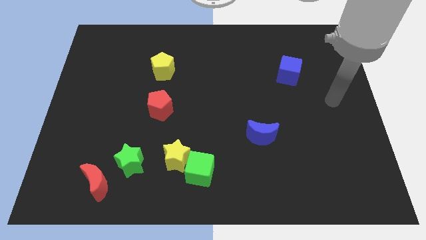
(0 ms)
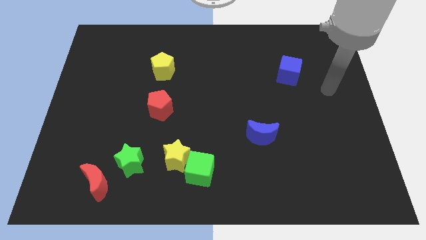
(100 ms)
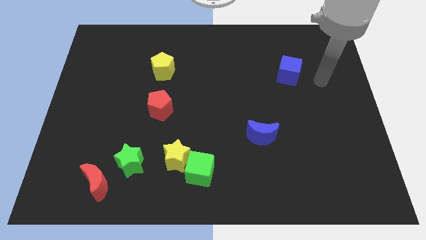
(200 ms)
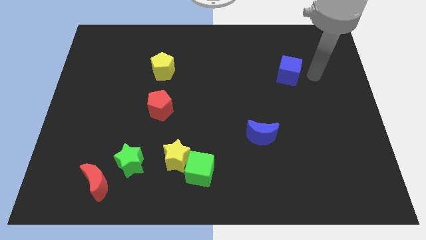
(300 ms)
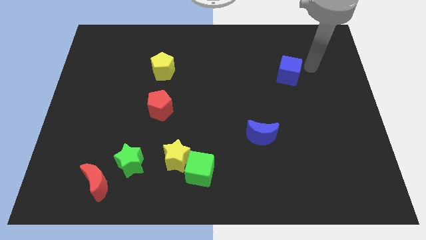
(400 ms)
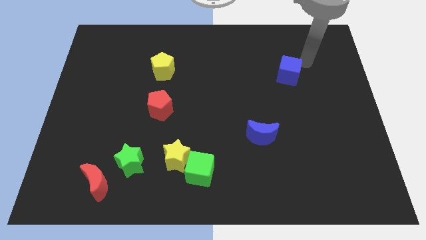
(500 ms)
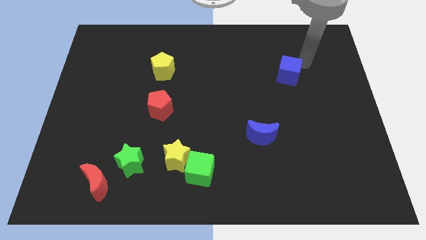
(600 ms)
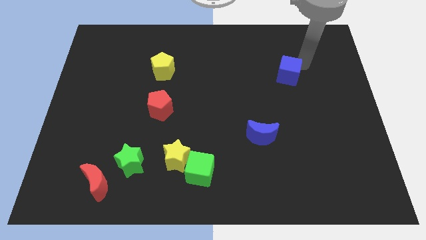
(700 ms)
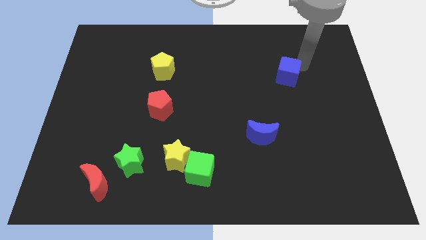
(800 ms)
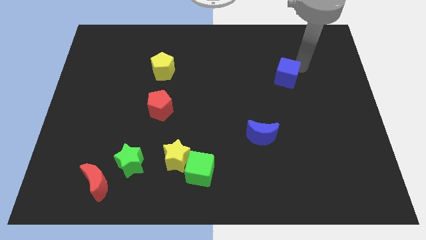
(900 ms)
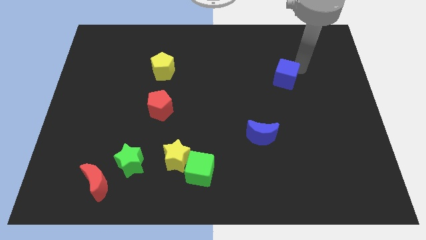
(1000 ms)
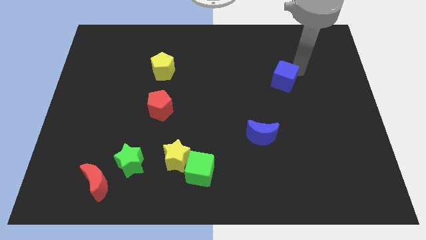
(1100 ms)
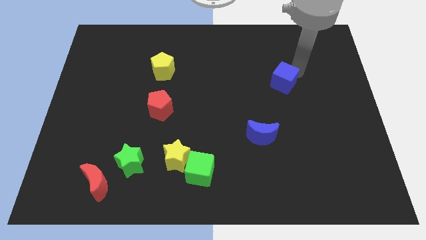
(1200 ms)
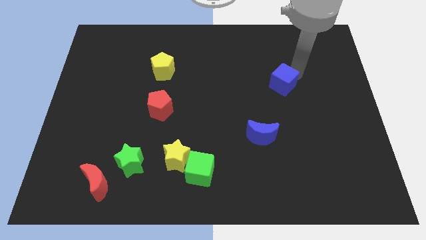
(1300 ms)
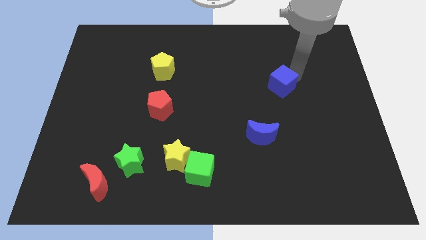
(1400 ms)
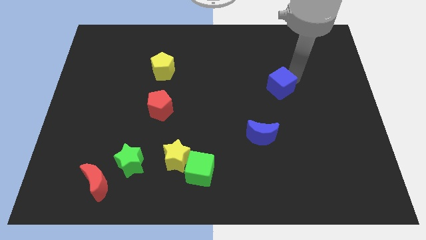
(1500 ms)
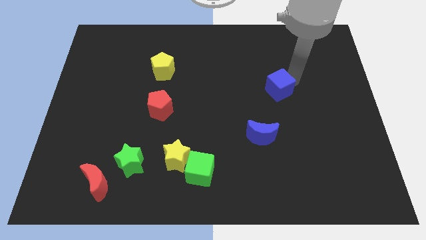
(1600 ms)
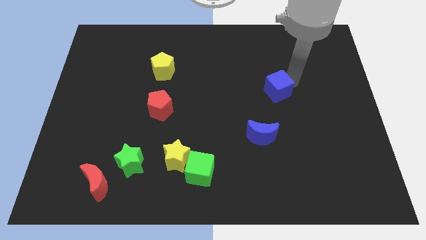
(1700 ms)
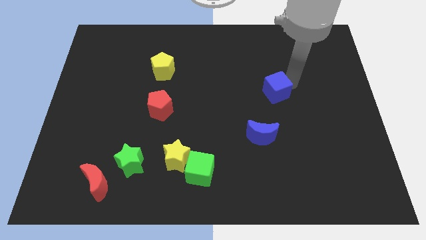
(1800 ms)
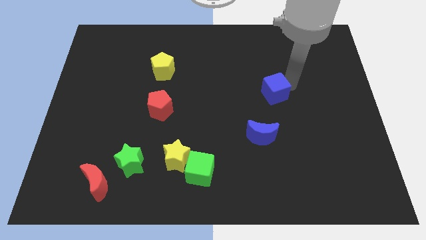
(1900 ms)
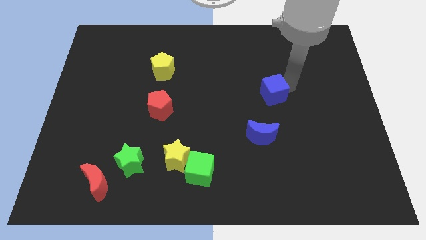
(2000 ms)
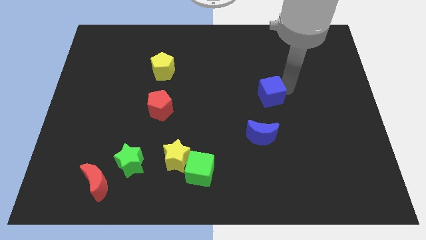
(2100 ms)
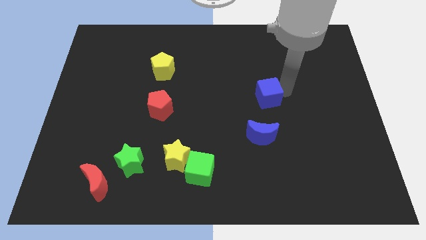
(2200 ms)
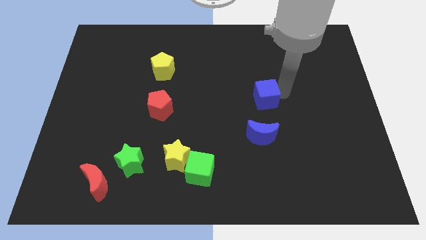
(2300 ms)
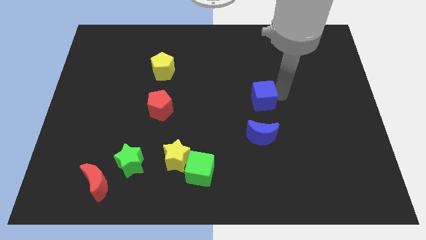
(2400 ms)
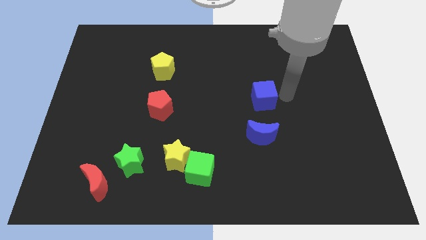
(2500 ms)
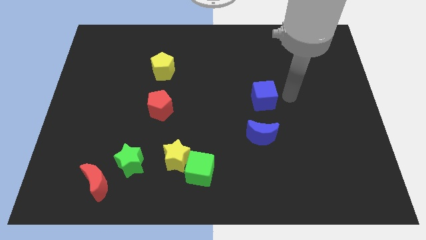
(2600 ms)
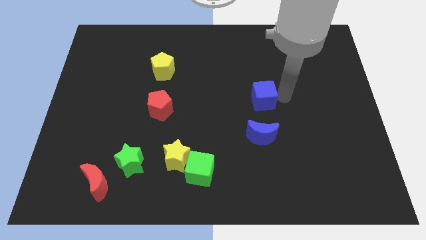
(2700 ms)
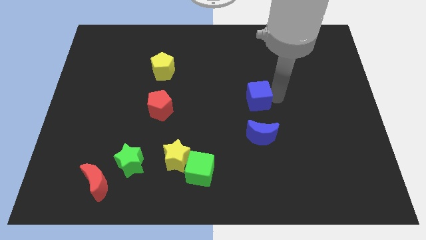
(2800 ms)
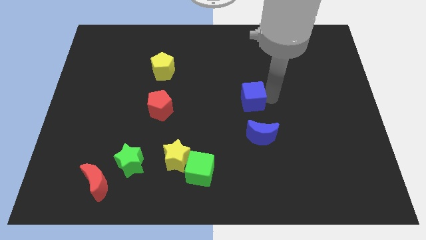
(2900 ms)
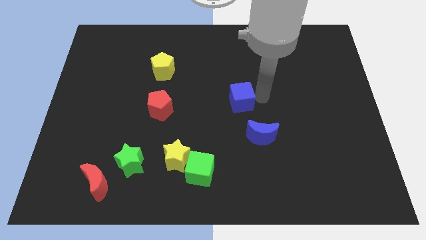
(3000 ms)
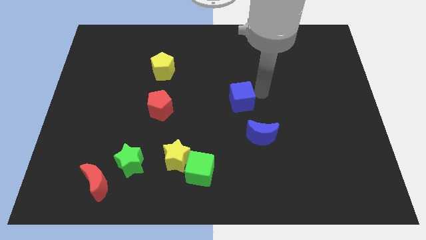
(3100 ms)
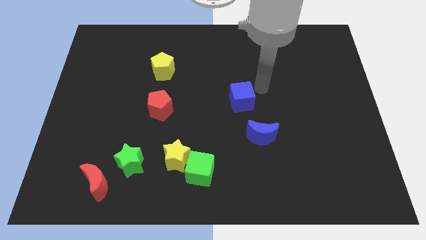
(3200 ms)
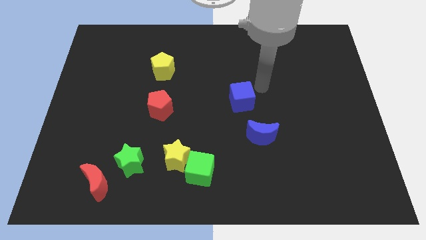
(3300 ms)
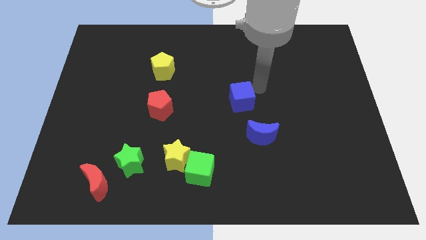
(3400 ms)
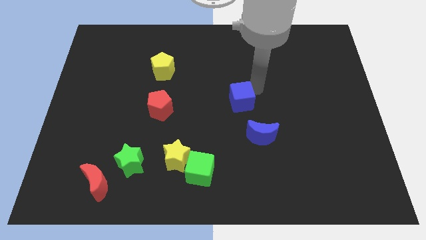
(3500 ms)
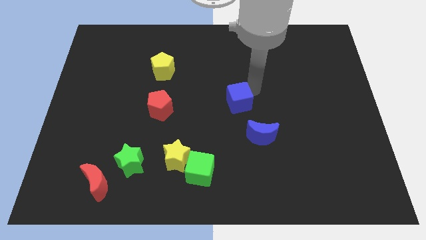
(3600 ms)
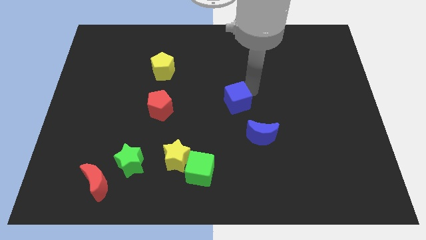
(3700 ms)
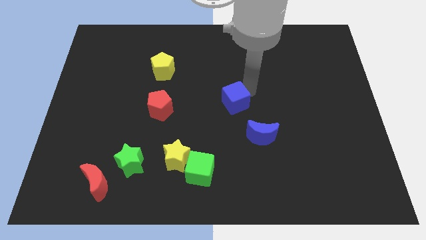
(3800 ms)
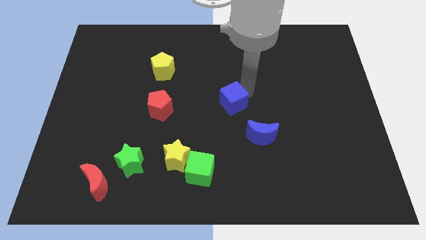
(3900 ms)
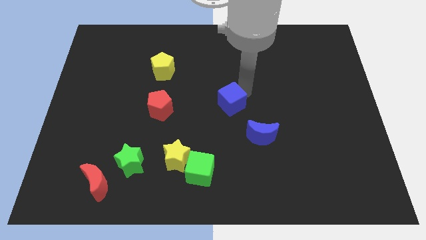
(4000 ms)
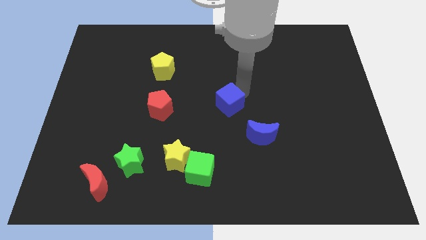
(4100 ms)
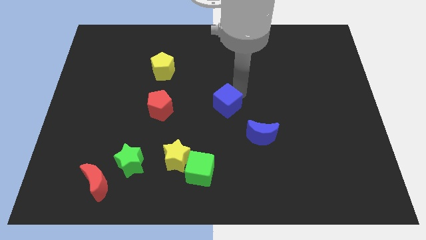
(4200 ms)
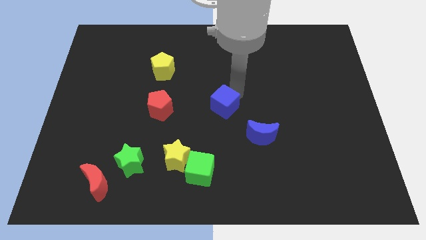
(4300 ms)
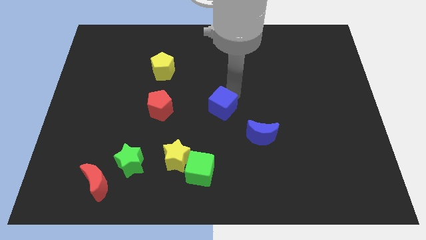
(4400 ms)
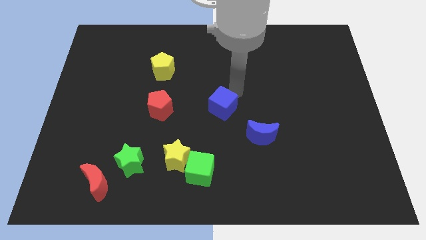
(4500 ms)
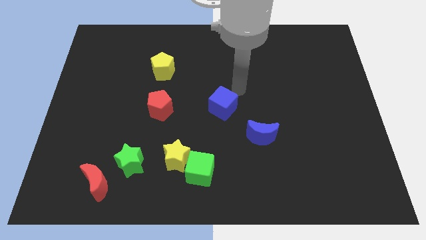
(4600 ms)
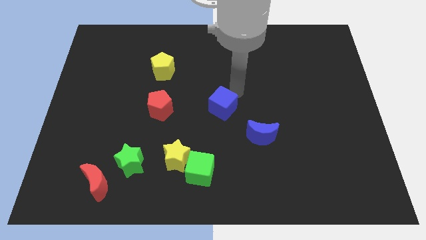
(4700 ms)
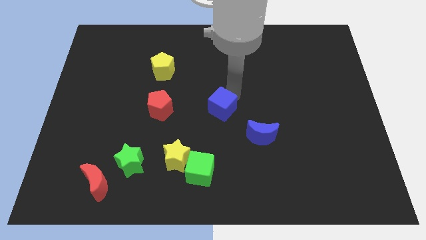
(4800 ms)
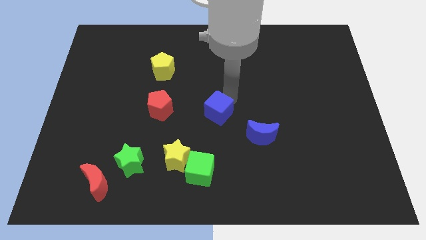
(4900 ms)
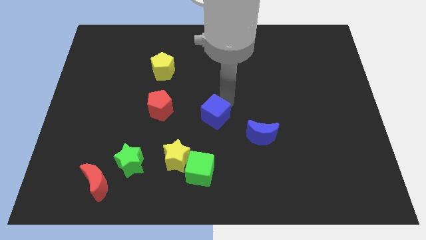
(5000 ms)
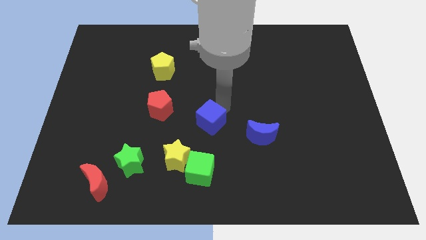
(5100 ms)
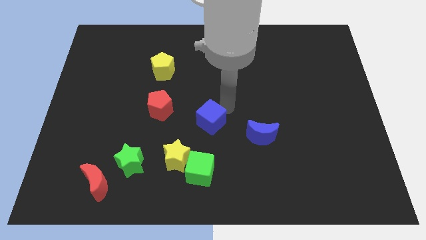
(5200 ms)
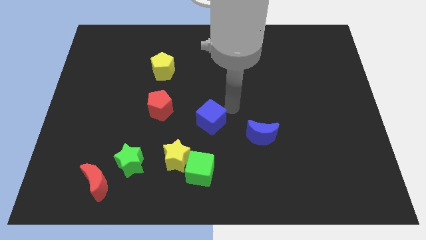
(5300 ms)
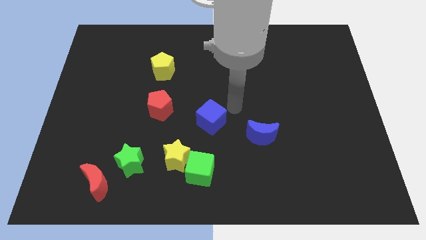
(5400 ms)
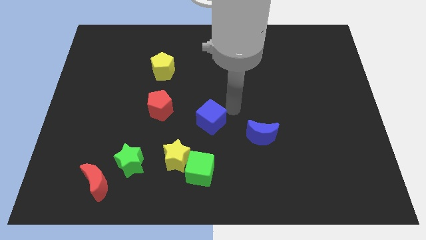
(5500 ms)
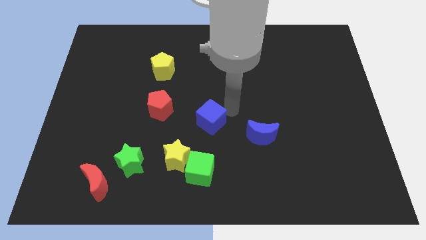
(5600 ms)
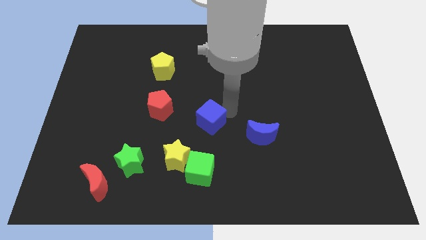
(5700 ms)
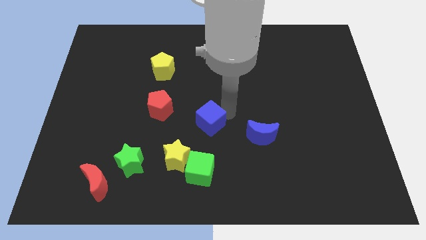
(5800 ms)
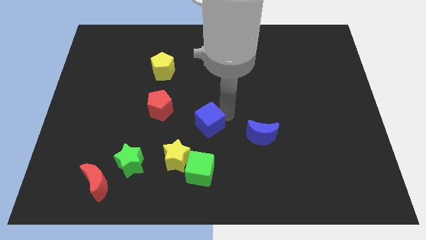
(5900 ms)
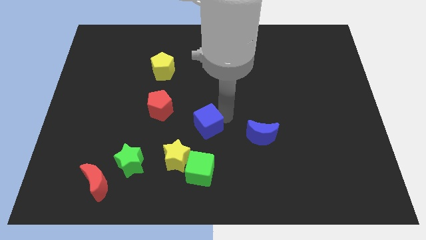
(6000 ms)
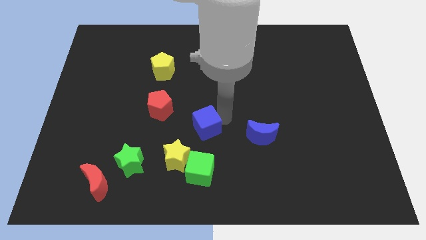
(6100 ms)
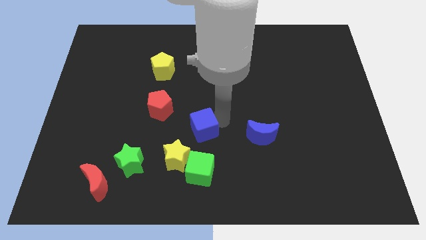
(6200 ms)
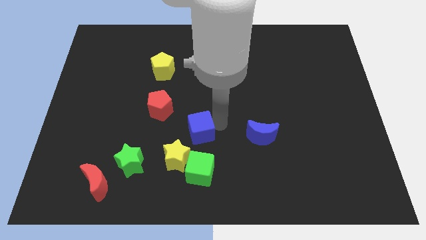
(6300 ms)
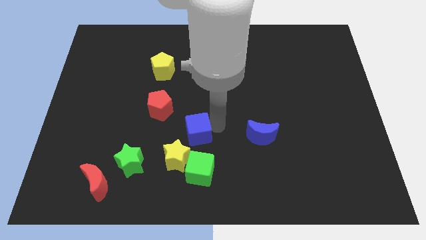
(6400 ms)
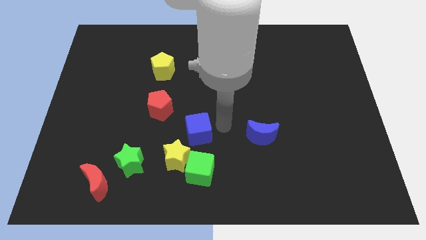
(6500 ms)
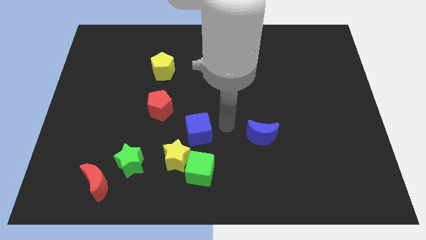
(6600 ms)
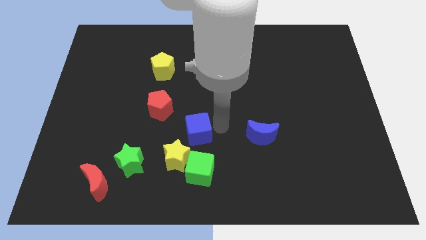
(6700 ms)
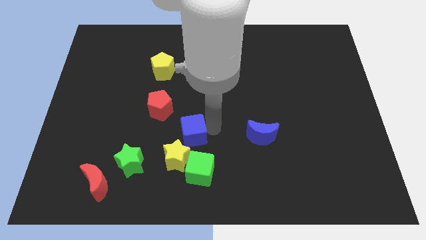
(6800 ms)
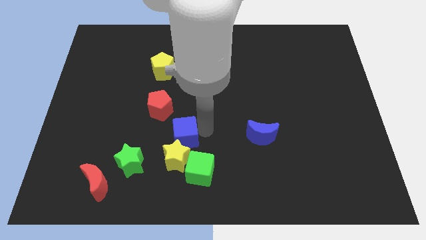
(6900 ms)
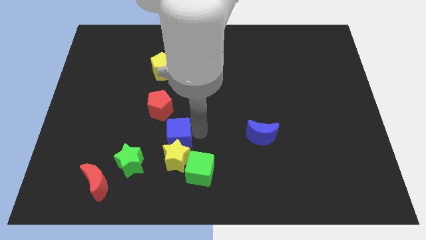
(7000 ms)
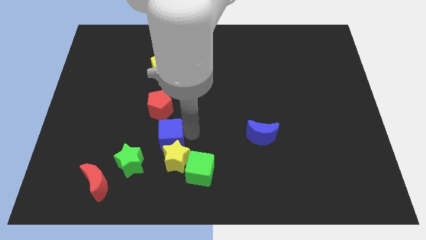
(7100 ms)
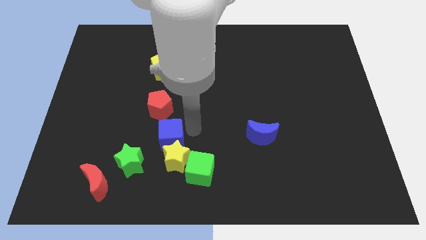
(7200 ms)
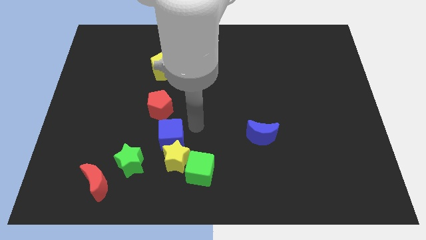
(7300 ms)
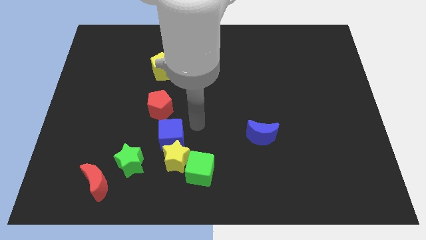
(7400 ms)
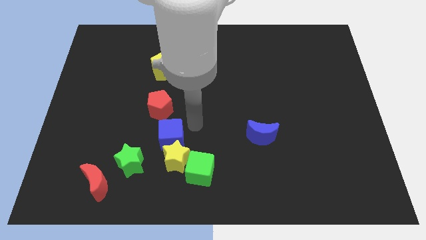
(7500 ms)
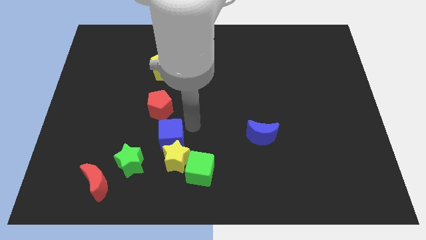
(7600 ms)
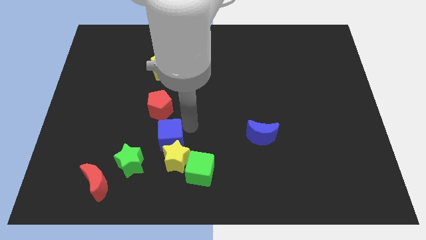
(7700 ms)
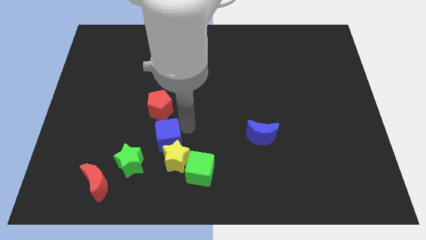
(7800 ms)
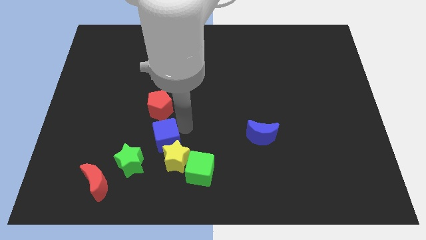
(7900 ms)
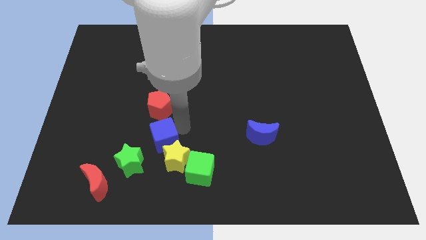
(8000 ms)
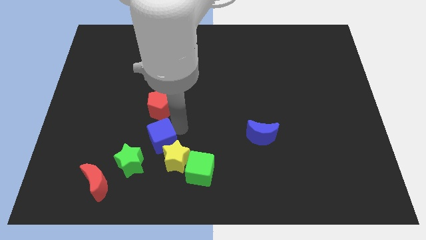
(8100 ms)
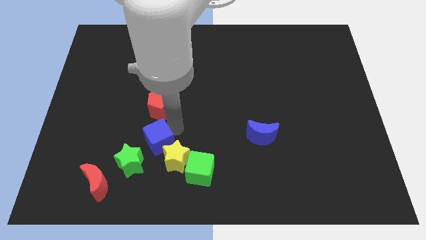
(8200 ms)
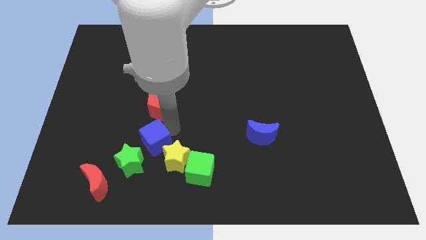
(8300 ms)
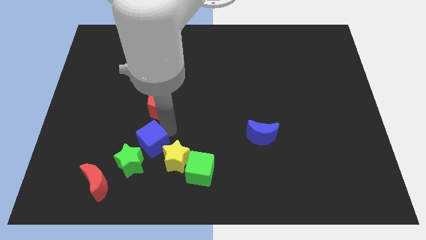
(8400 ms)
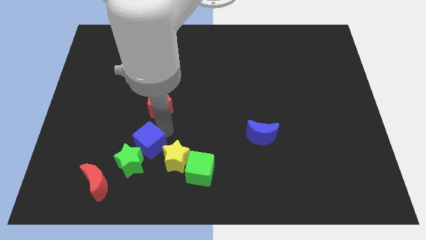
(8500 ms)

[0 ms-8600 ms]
slide the blue cube close to the green star
